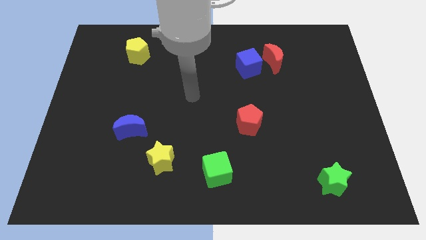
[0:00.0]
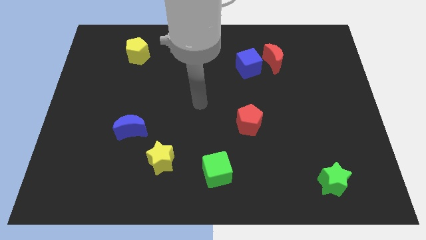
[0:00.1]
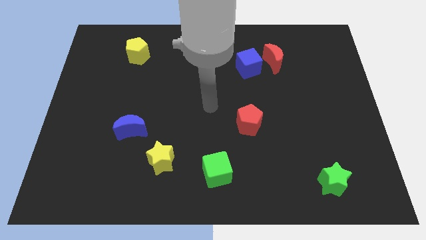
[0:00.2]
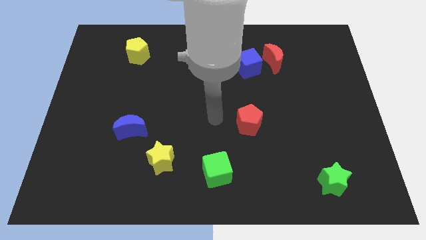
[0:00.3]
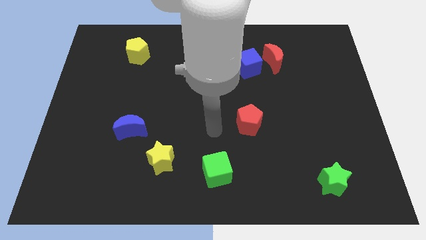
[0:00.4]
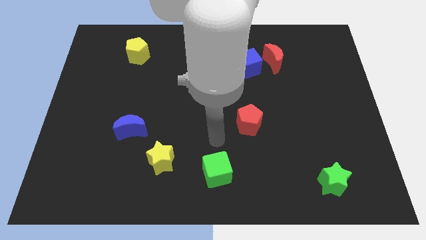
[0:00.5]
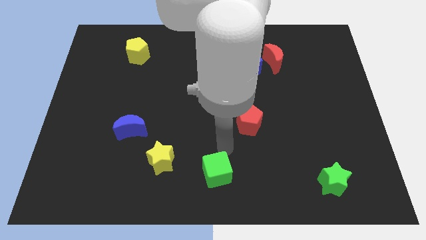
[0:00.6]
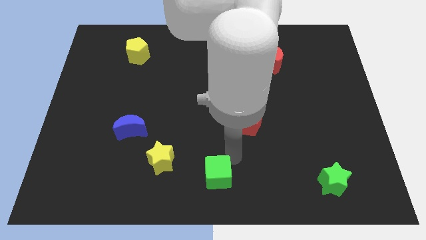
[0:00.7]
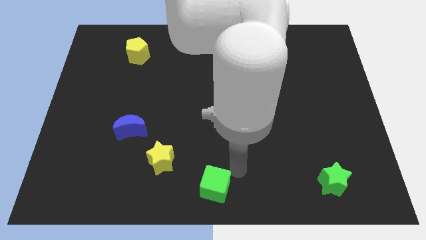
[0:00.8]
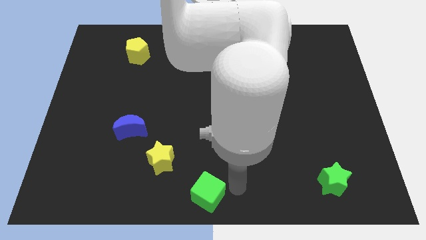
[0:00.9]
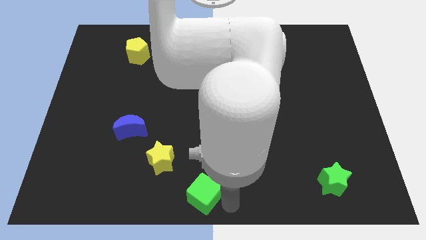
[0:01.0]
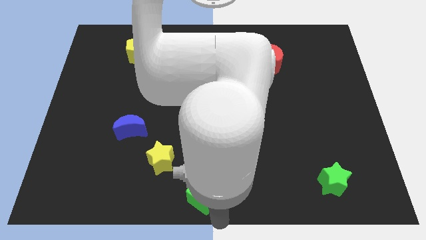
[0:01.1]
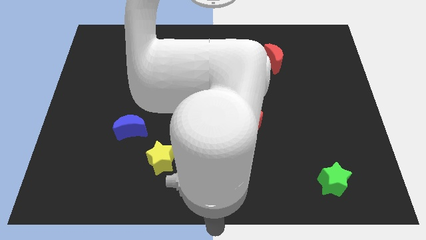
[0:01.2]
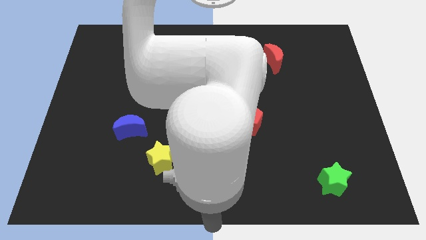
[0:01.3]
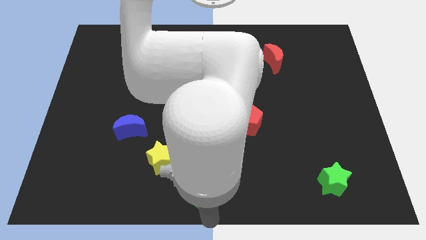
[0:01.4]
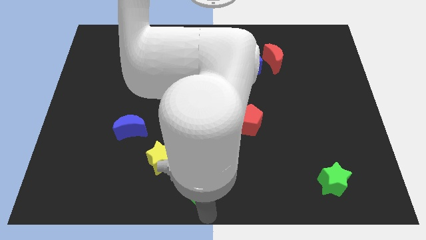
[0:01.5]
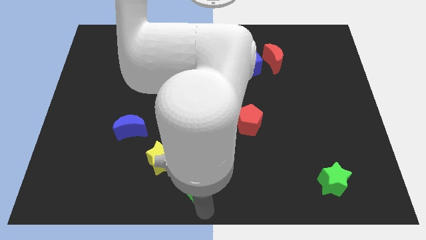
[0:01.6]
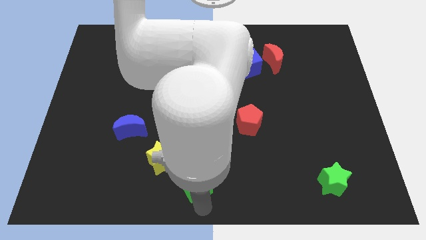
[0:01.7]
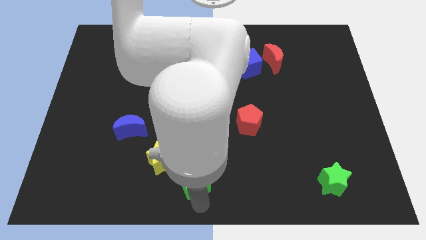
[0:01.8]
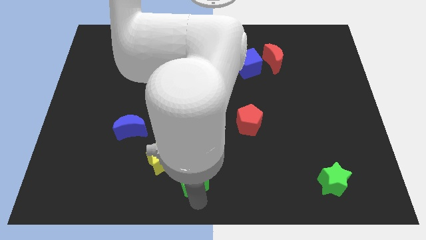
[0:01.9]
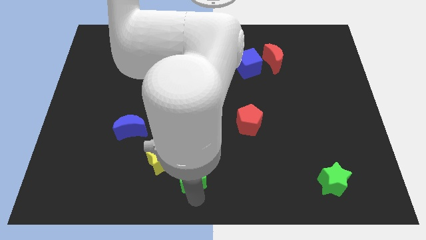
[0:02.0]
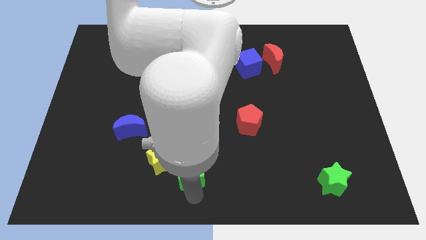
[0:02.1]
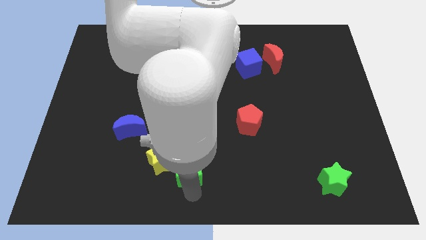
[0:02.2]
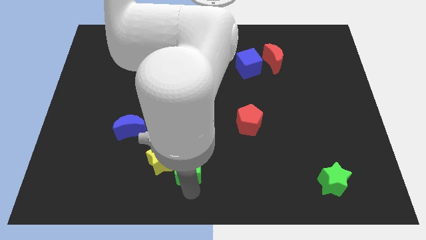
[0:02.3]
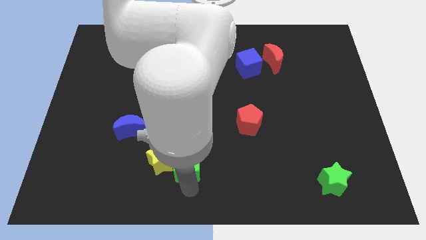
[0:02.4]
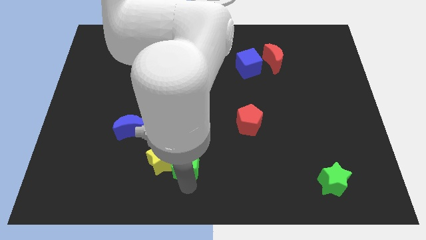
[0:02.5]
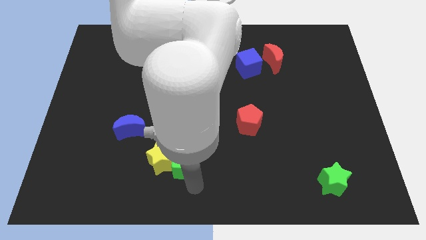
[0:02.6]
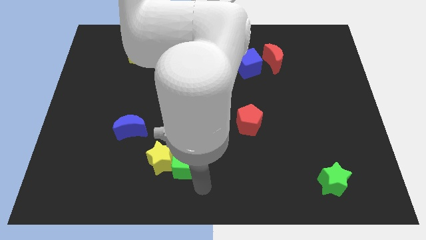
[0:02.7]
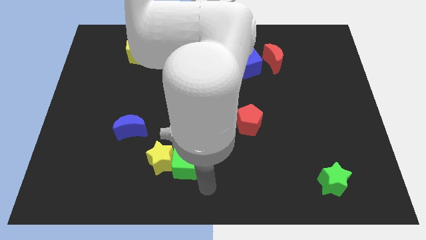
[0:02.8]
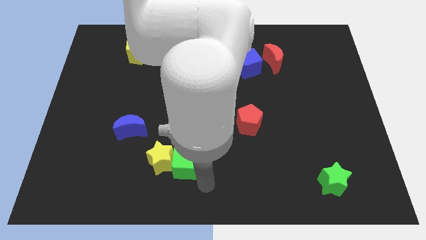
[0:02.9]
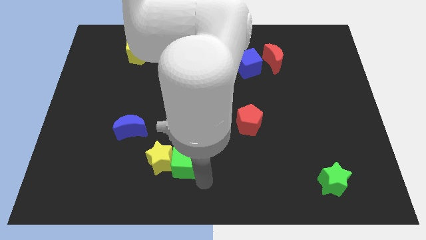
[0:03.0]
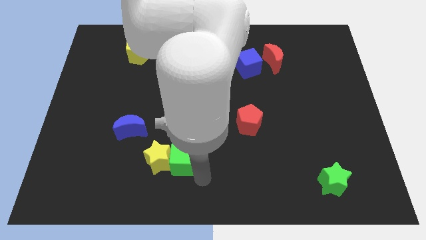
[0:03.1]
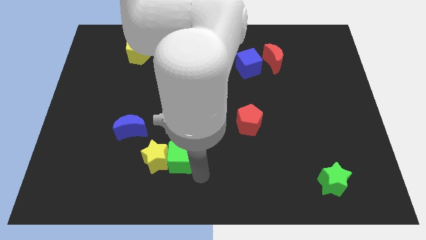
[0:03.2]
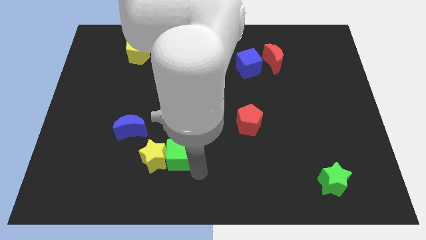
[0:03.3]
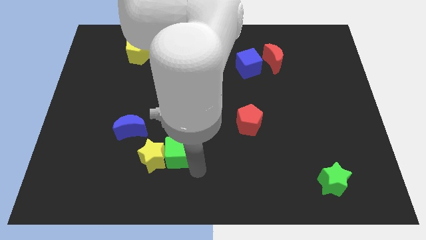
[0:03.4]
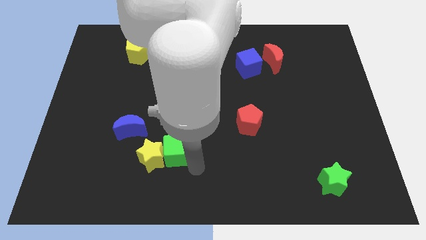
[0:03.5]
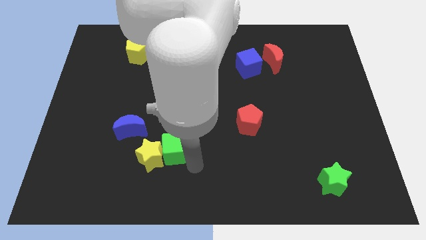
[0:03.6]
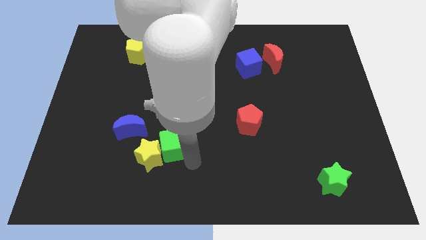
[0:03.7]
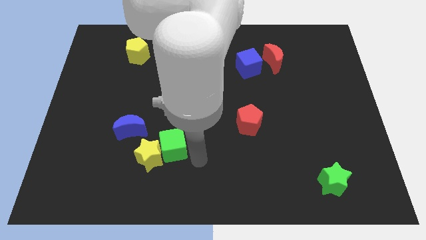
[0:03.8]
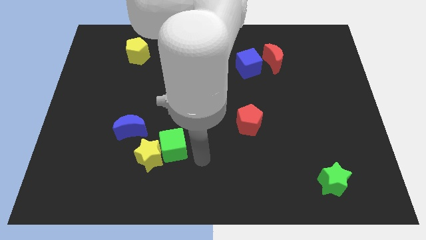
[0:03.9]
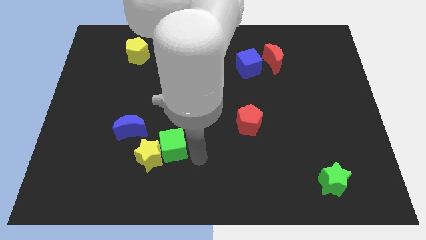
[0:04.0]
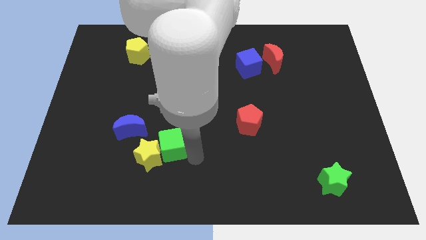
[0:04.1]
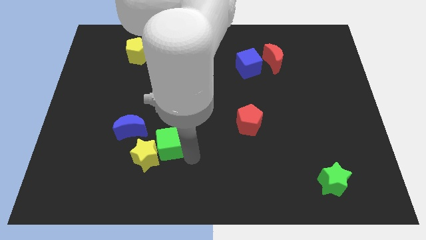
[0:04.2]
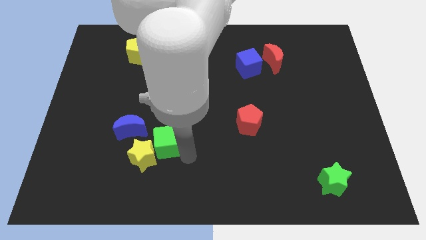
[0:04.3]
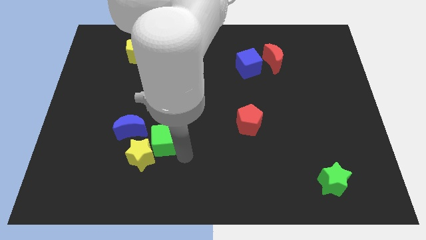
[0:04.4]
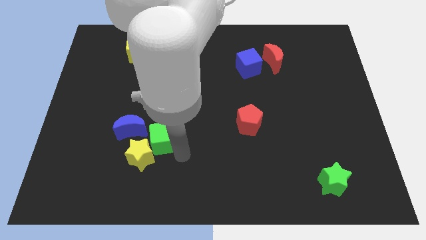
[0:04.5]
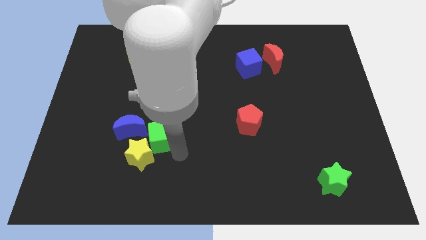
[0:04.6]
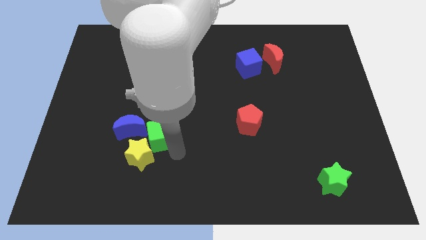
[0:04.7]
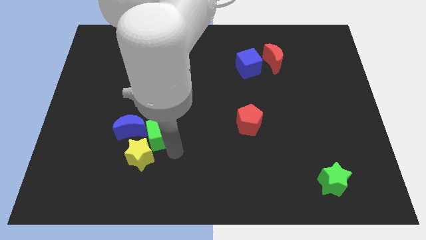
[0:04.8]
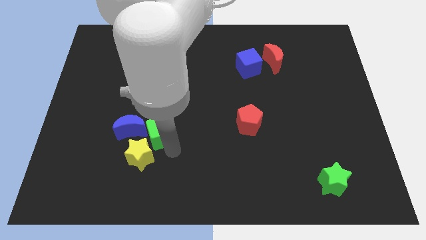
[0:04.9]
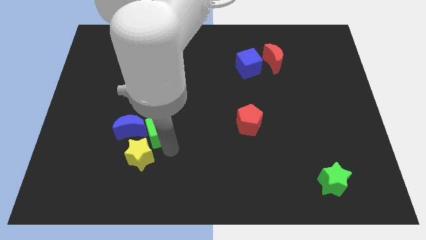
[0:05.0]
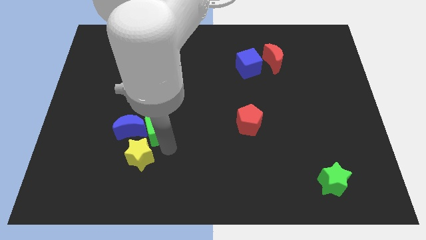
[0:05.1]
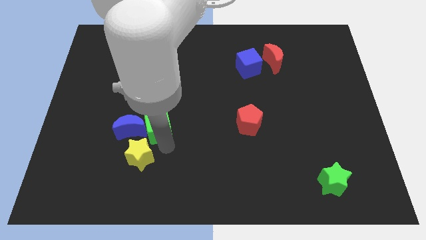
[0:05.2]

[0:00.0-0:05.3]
put the green cube towards the blue moon

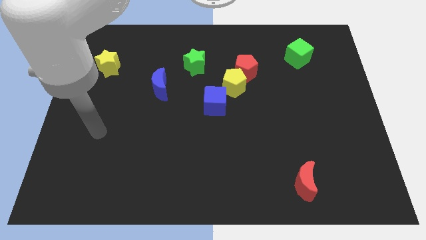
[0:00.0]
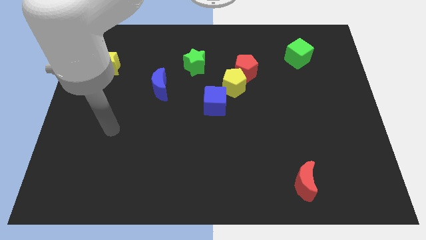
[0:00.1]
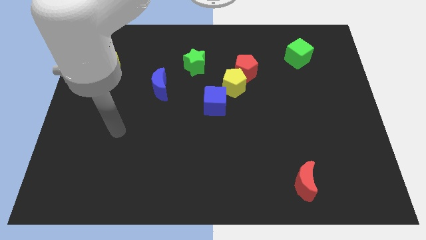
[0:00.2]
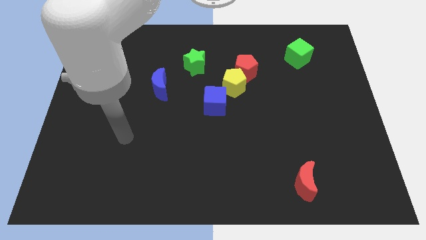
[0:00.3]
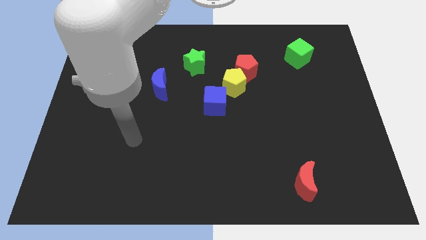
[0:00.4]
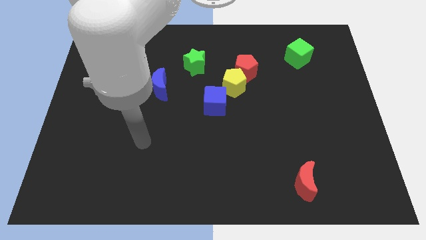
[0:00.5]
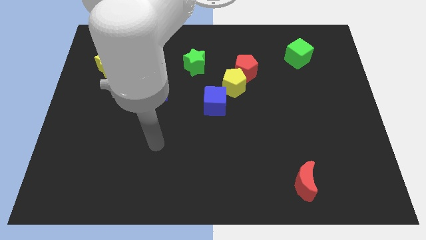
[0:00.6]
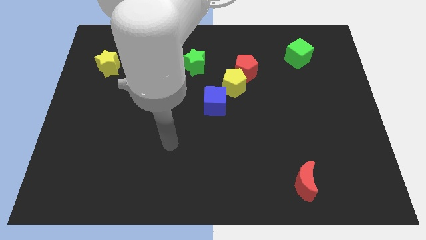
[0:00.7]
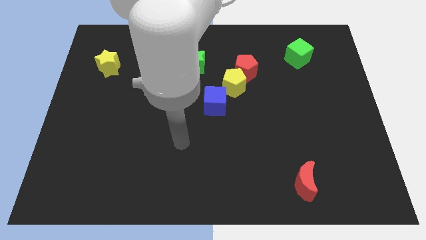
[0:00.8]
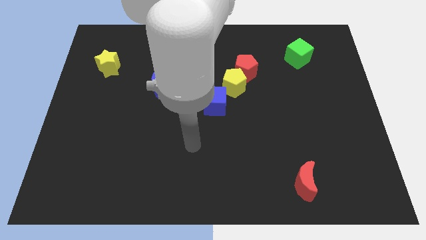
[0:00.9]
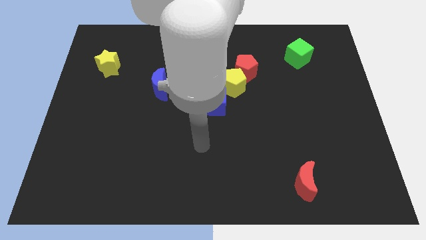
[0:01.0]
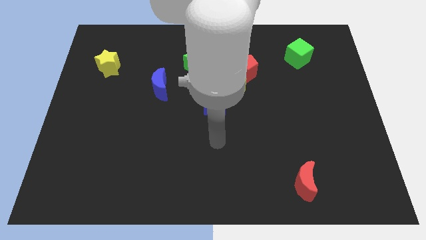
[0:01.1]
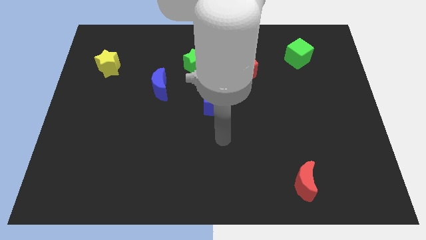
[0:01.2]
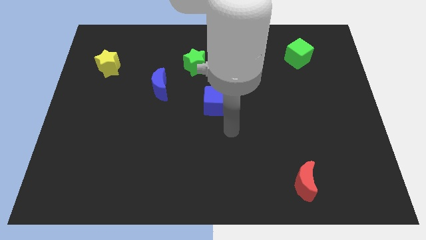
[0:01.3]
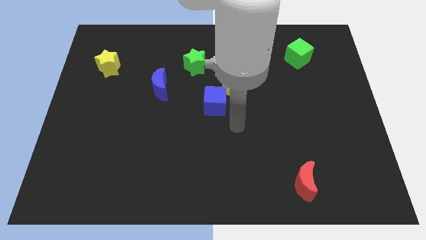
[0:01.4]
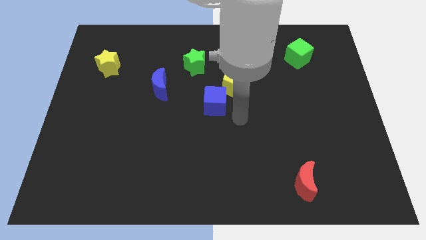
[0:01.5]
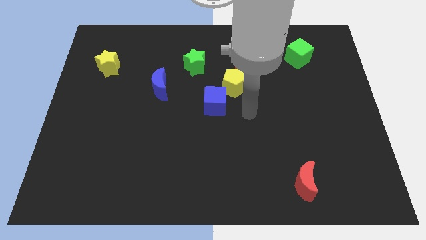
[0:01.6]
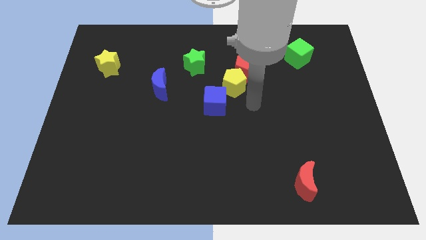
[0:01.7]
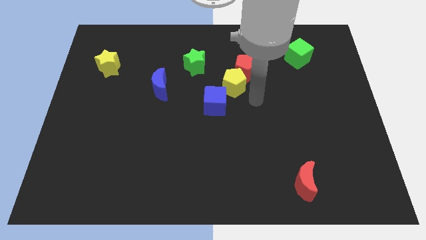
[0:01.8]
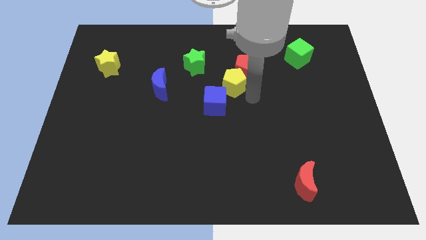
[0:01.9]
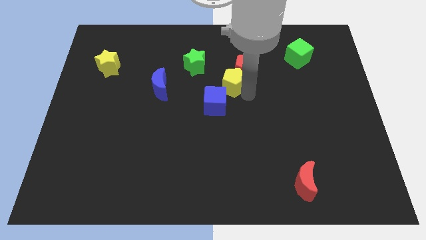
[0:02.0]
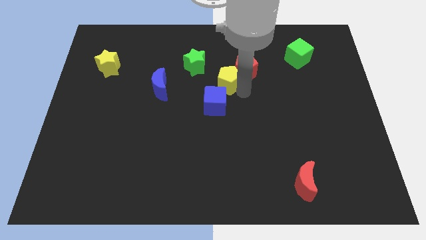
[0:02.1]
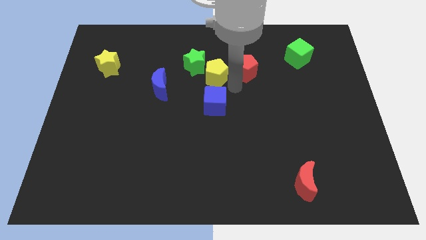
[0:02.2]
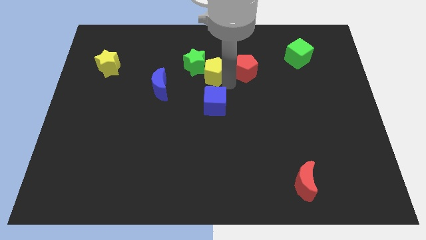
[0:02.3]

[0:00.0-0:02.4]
slide the yellow pentagon next to the green star

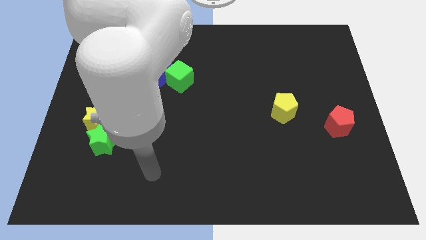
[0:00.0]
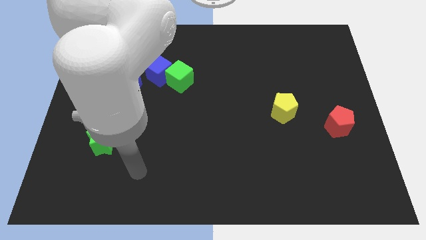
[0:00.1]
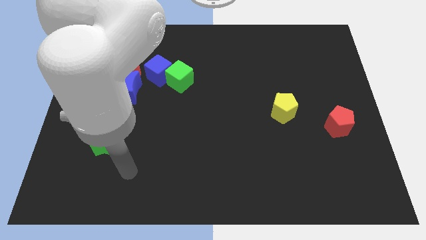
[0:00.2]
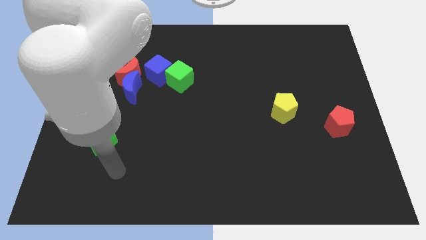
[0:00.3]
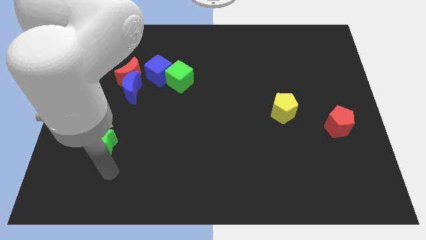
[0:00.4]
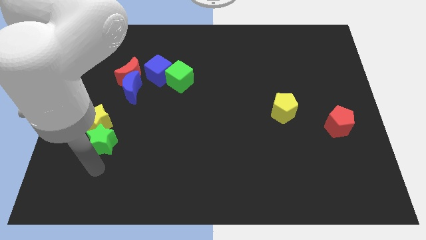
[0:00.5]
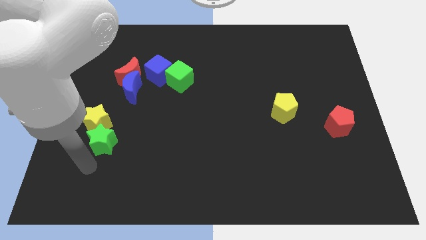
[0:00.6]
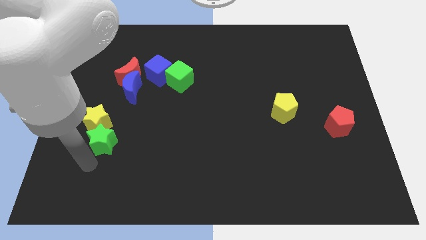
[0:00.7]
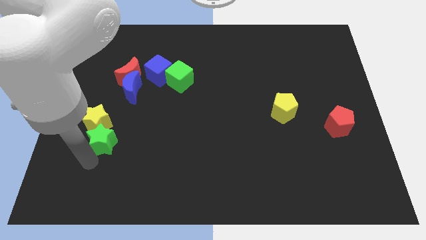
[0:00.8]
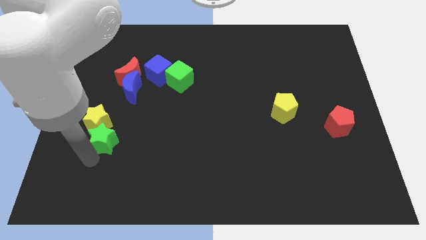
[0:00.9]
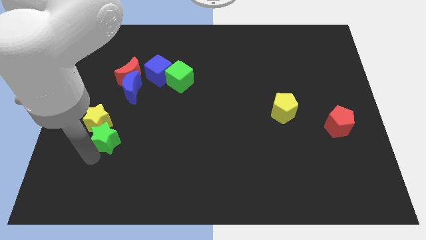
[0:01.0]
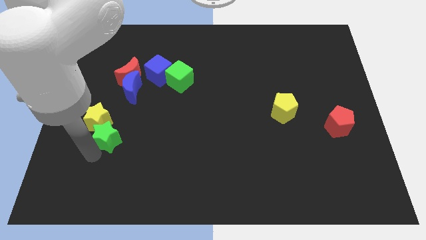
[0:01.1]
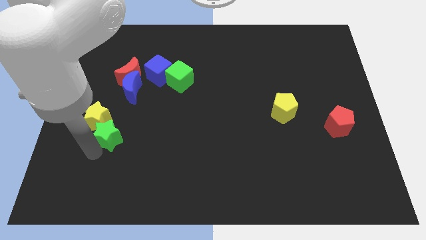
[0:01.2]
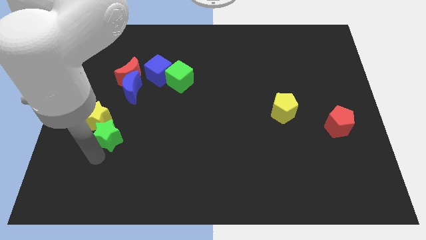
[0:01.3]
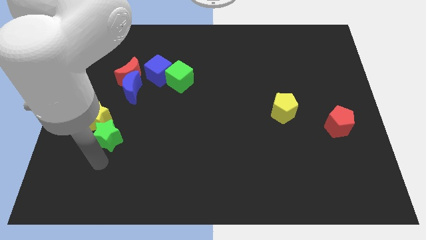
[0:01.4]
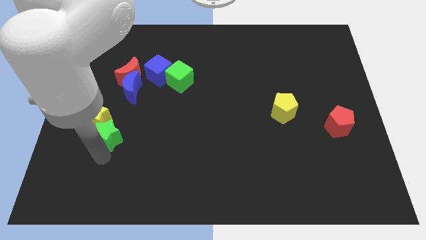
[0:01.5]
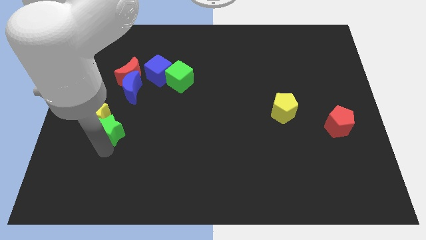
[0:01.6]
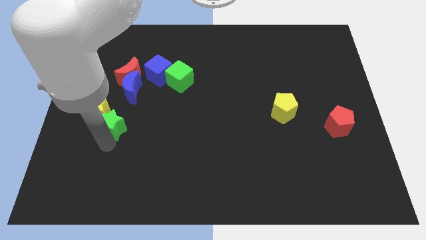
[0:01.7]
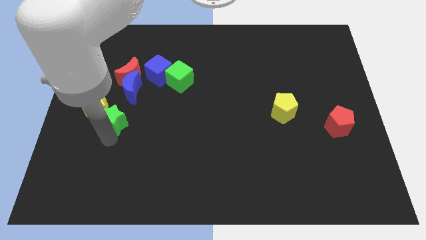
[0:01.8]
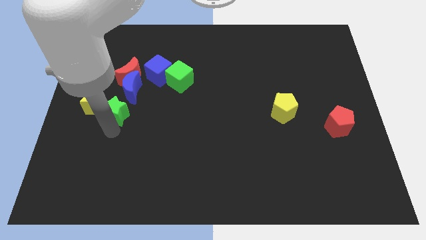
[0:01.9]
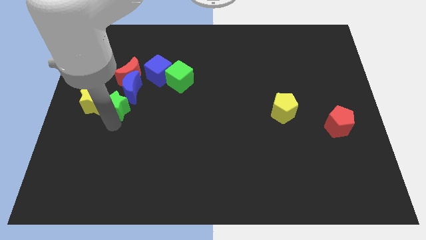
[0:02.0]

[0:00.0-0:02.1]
move the green star close to the blue moon
